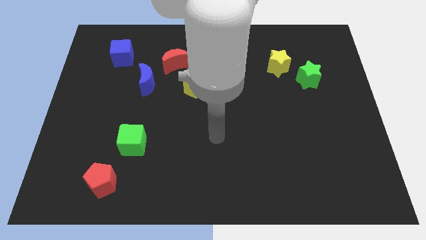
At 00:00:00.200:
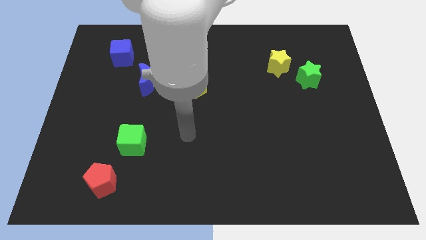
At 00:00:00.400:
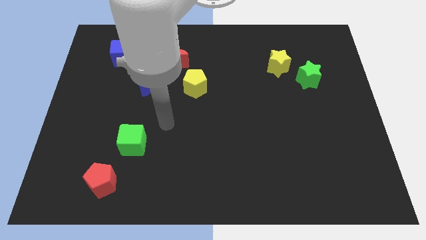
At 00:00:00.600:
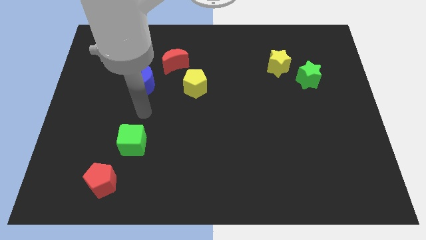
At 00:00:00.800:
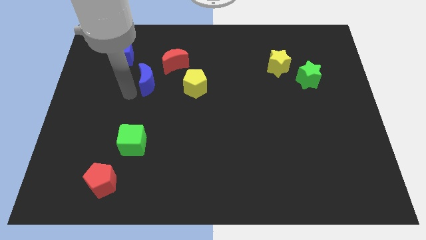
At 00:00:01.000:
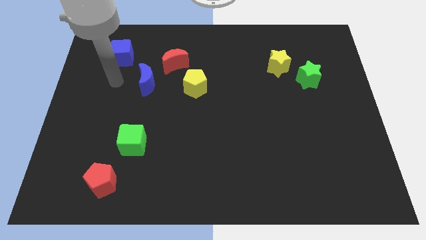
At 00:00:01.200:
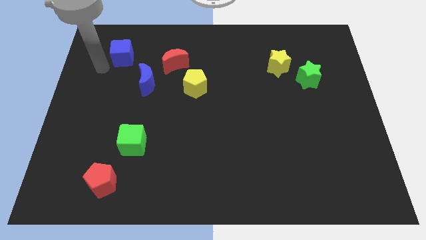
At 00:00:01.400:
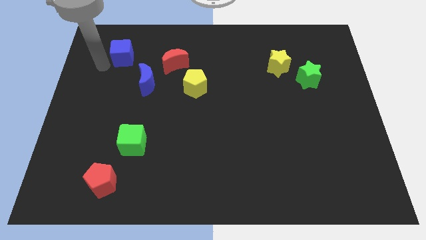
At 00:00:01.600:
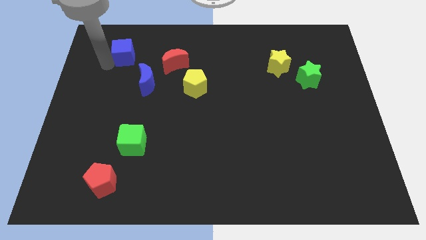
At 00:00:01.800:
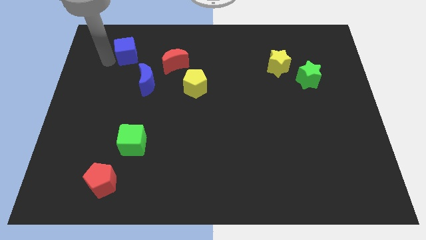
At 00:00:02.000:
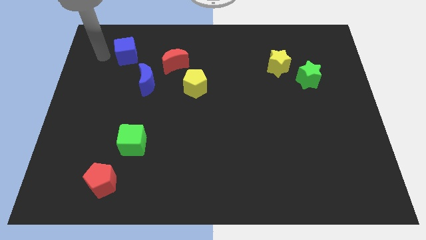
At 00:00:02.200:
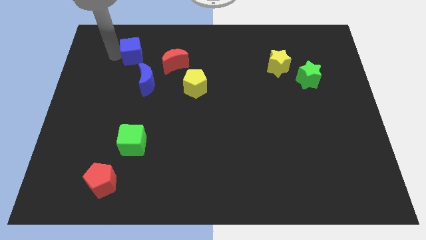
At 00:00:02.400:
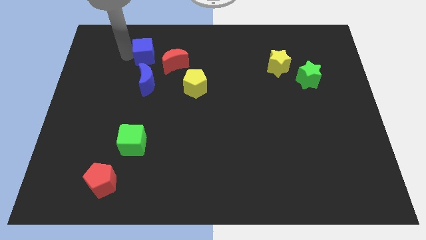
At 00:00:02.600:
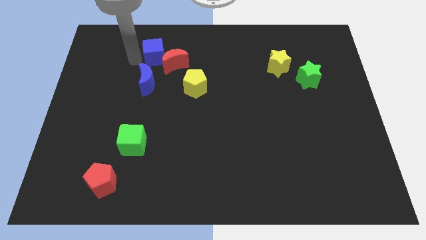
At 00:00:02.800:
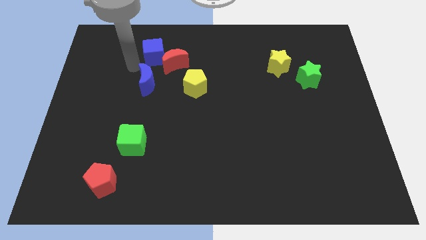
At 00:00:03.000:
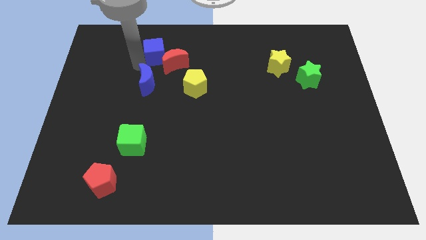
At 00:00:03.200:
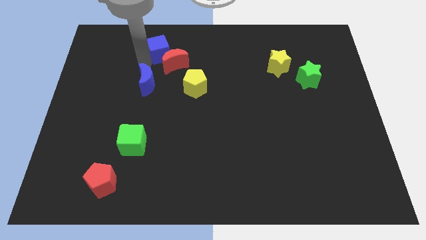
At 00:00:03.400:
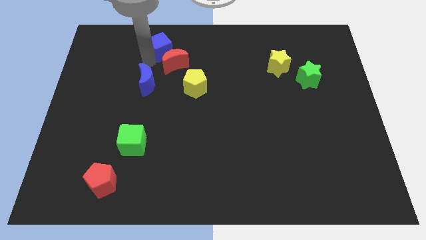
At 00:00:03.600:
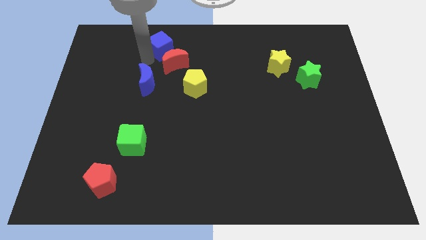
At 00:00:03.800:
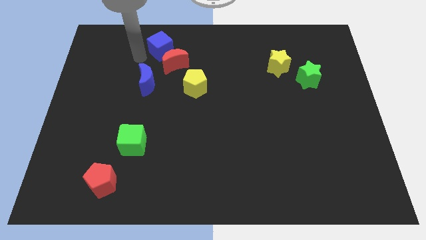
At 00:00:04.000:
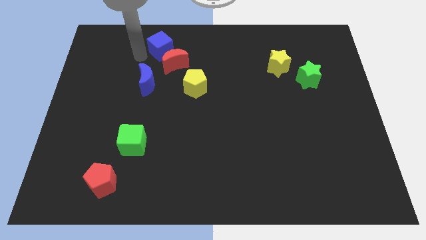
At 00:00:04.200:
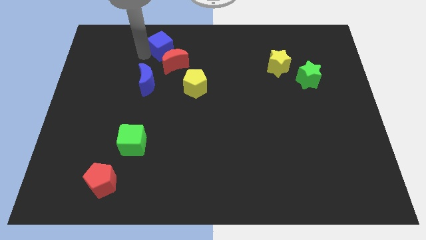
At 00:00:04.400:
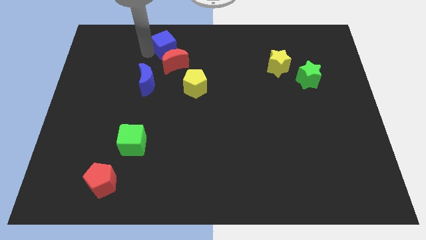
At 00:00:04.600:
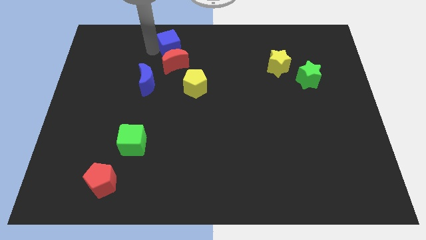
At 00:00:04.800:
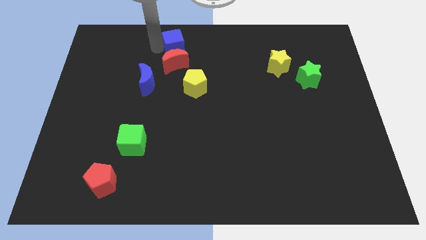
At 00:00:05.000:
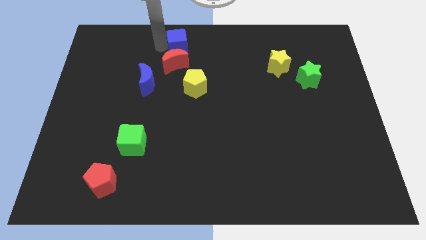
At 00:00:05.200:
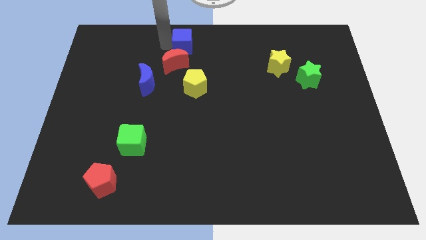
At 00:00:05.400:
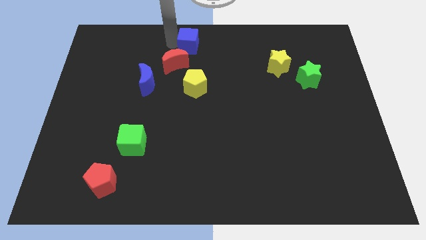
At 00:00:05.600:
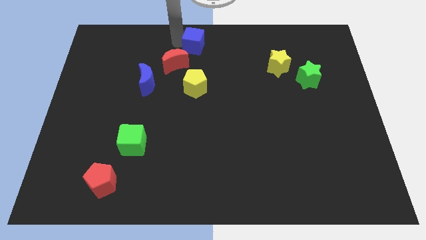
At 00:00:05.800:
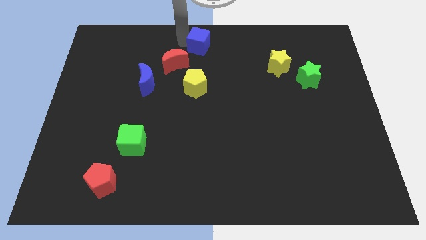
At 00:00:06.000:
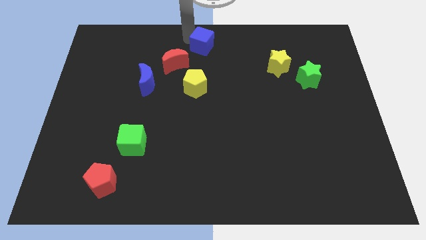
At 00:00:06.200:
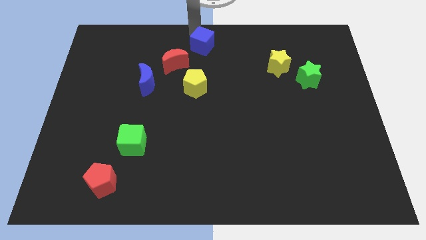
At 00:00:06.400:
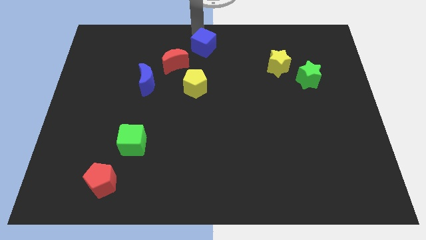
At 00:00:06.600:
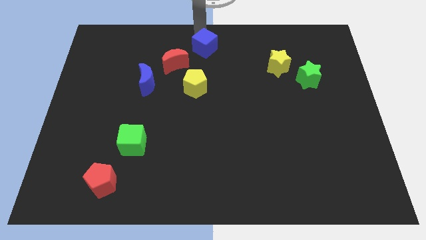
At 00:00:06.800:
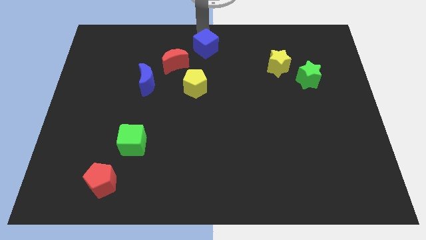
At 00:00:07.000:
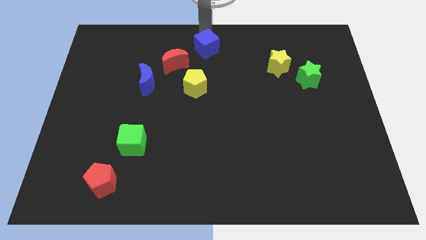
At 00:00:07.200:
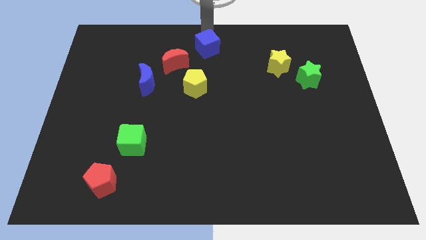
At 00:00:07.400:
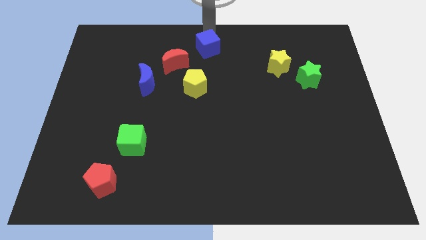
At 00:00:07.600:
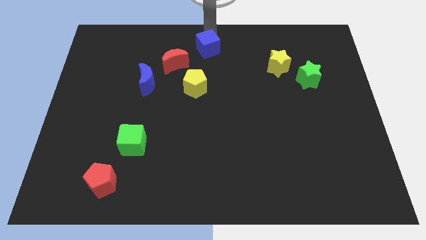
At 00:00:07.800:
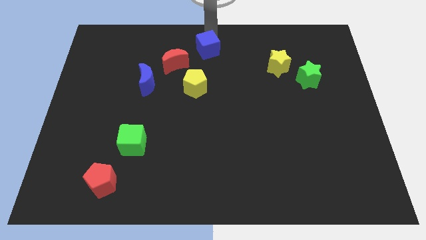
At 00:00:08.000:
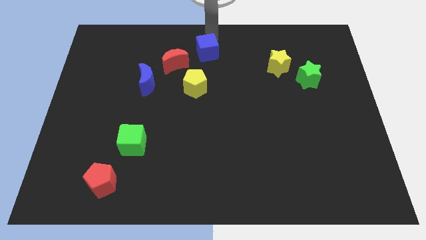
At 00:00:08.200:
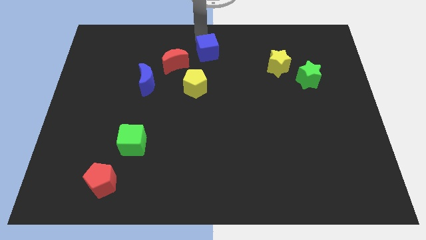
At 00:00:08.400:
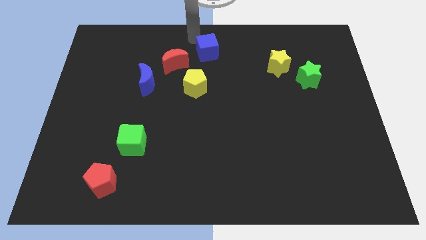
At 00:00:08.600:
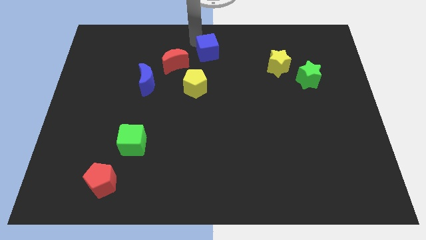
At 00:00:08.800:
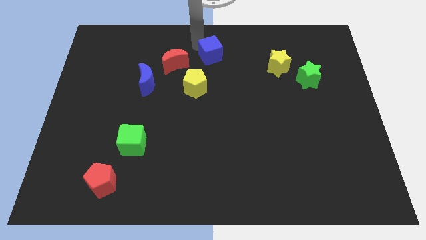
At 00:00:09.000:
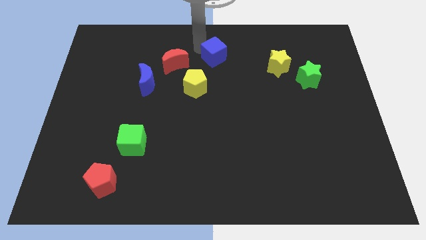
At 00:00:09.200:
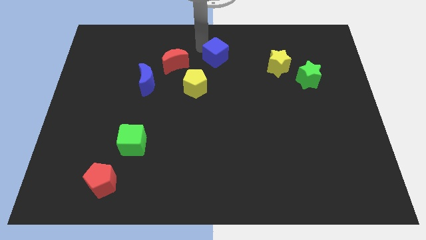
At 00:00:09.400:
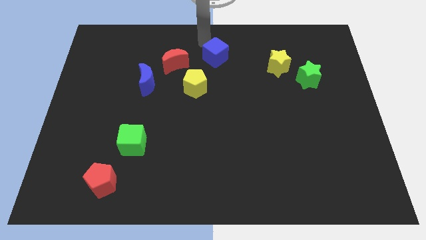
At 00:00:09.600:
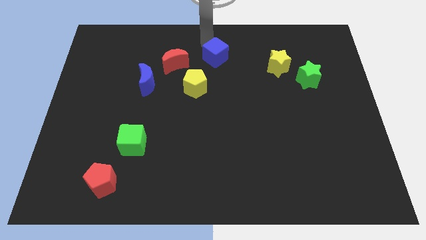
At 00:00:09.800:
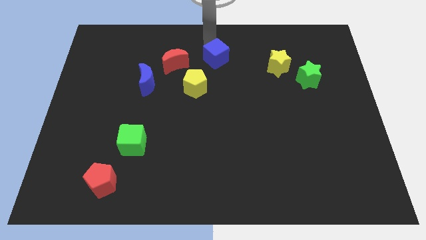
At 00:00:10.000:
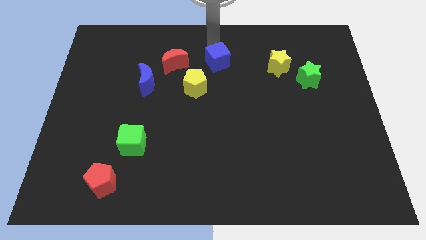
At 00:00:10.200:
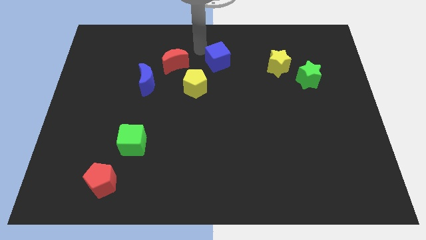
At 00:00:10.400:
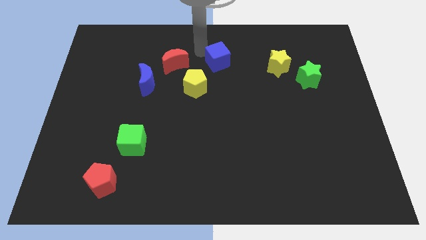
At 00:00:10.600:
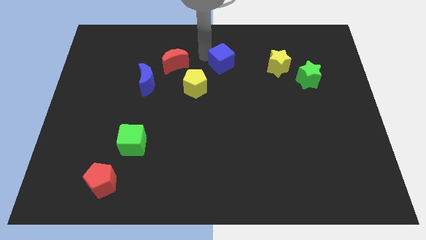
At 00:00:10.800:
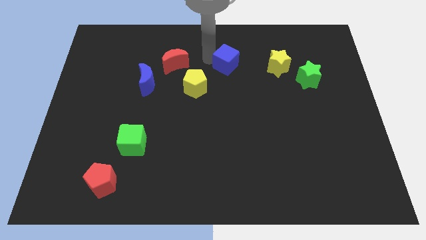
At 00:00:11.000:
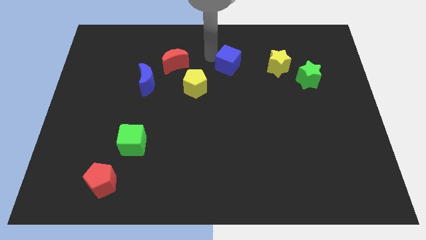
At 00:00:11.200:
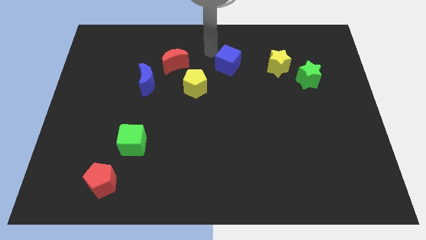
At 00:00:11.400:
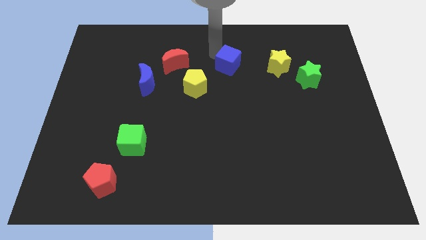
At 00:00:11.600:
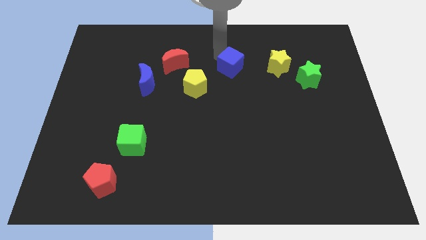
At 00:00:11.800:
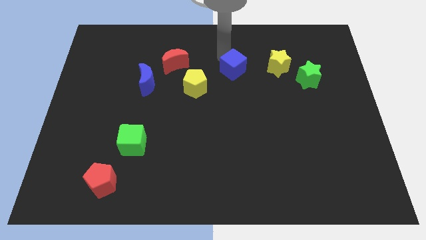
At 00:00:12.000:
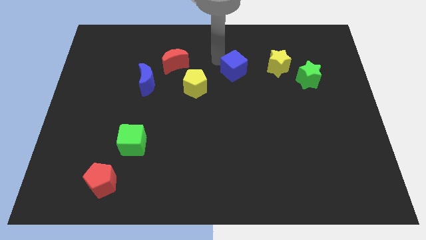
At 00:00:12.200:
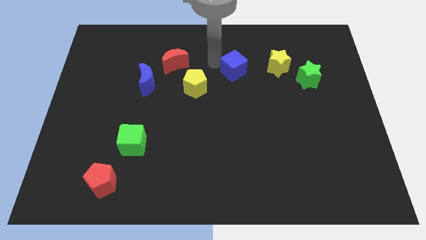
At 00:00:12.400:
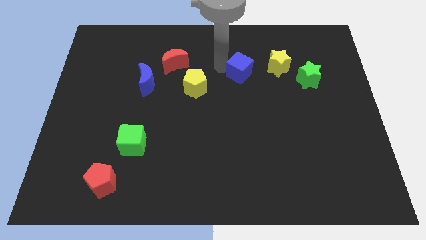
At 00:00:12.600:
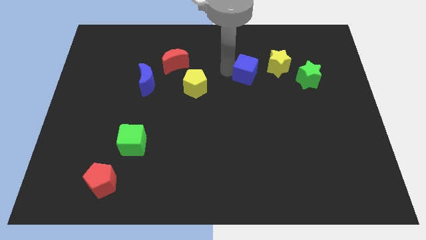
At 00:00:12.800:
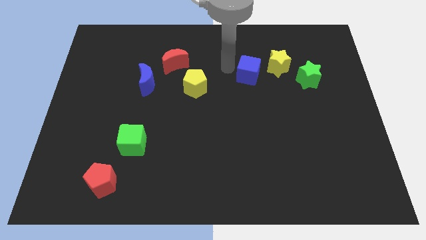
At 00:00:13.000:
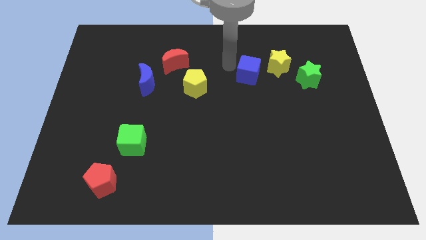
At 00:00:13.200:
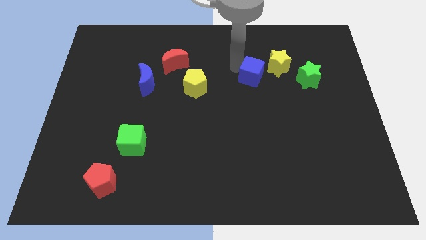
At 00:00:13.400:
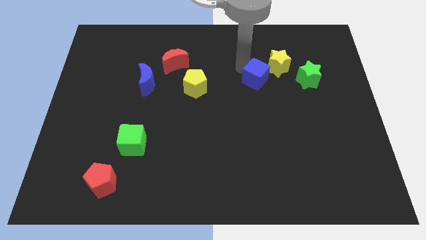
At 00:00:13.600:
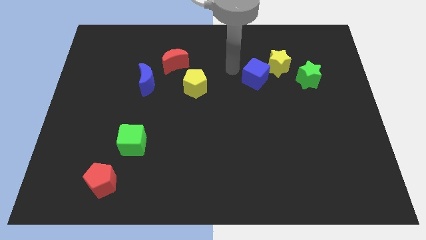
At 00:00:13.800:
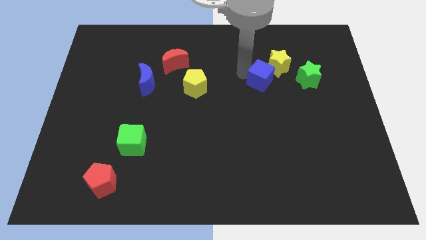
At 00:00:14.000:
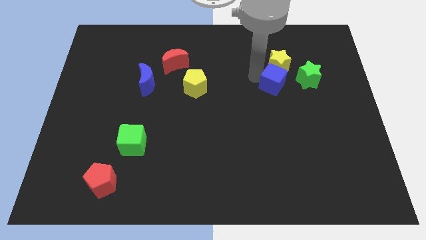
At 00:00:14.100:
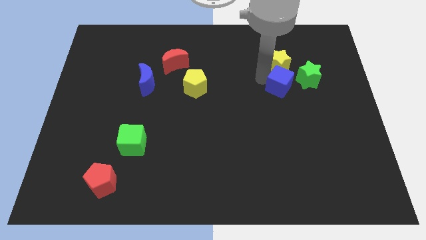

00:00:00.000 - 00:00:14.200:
push the blue cube to the bottom left side of the green star

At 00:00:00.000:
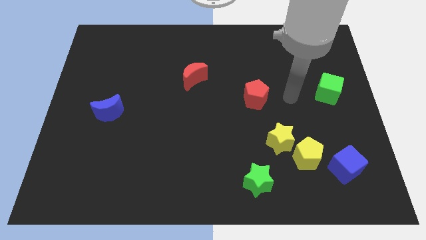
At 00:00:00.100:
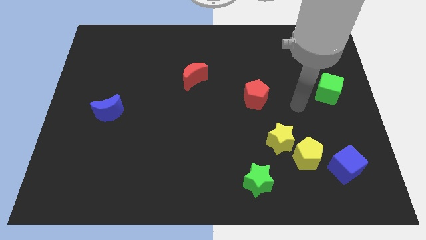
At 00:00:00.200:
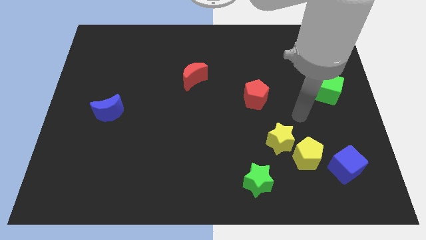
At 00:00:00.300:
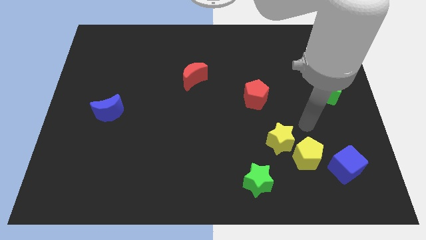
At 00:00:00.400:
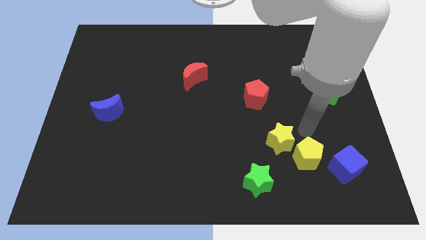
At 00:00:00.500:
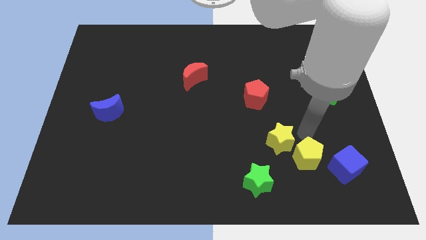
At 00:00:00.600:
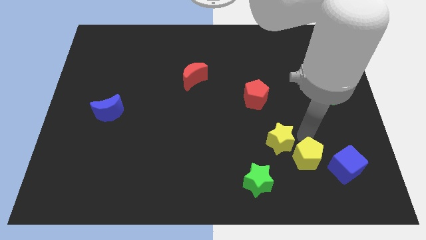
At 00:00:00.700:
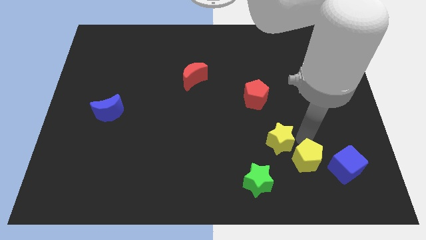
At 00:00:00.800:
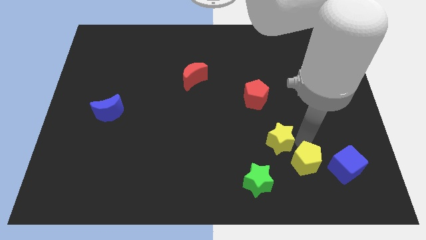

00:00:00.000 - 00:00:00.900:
move the yellow pentagon to the right of the green star
